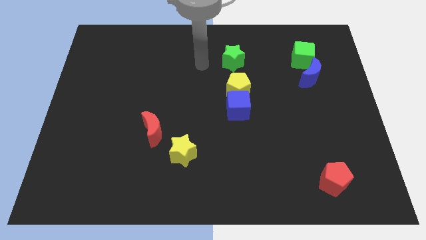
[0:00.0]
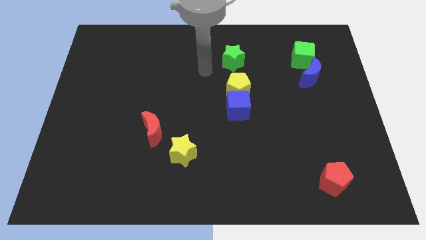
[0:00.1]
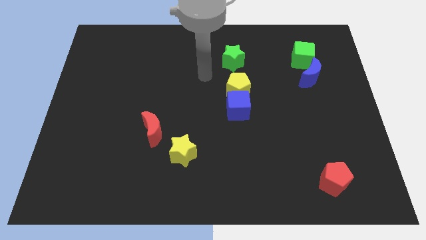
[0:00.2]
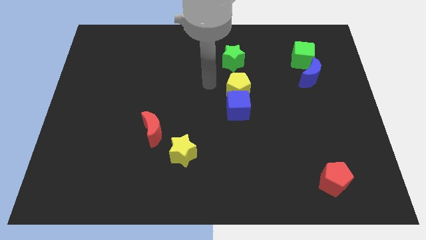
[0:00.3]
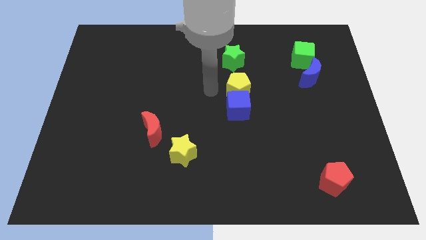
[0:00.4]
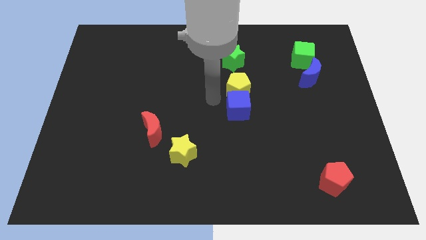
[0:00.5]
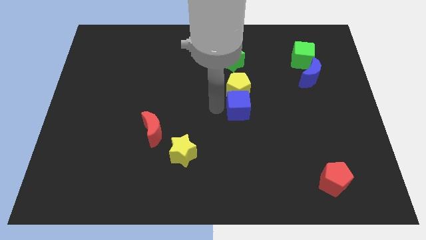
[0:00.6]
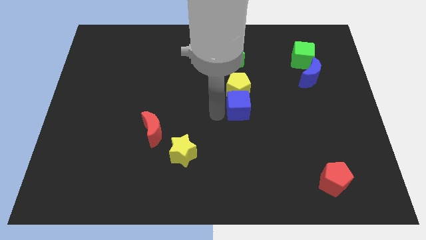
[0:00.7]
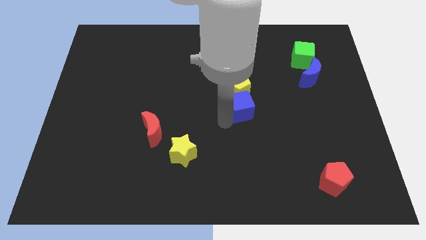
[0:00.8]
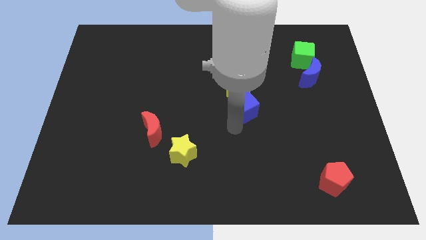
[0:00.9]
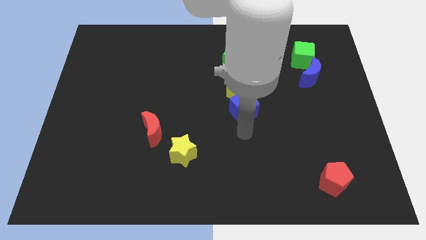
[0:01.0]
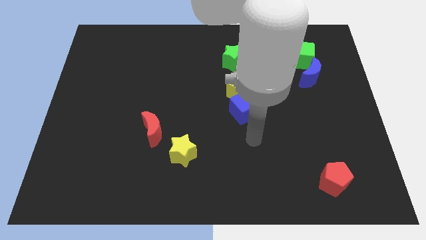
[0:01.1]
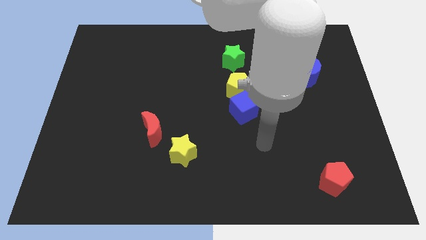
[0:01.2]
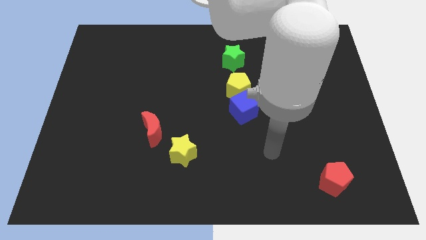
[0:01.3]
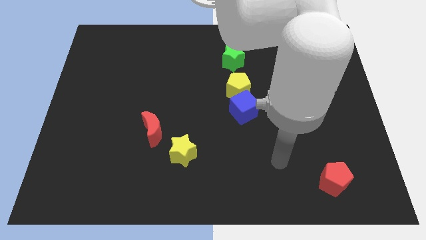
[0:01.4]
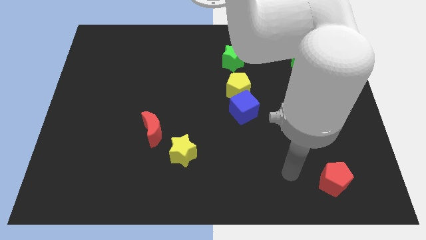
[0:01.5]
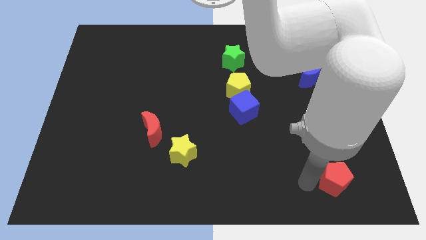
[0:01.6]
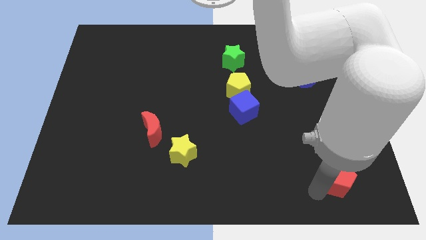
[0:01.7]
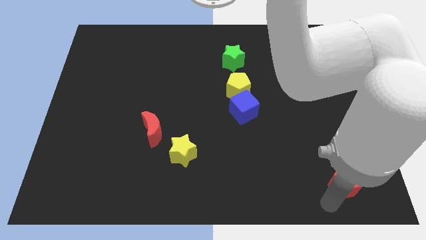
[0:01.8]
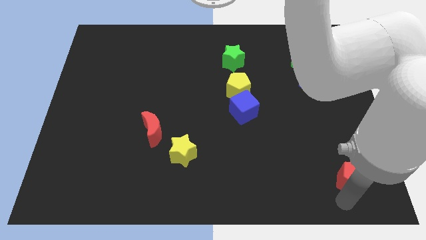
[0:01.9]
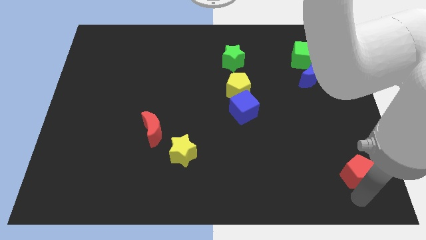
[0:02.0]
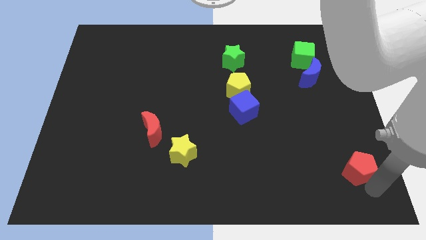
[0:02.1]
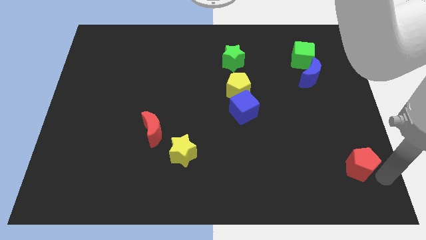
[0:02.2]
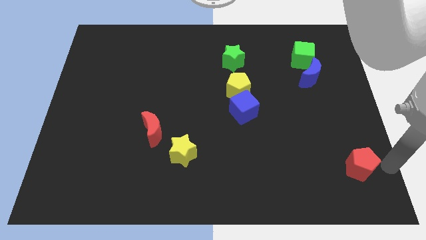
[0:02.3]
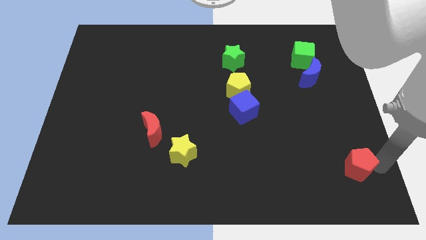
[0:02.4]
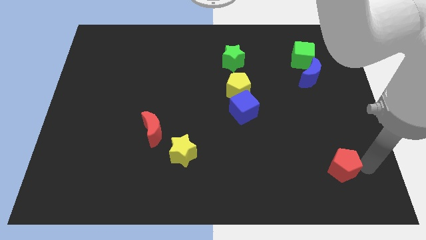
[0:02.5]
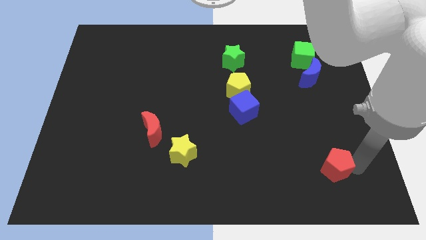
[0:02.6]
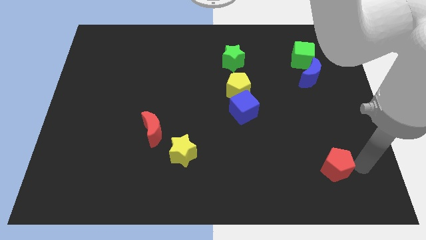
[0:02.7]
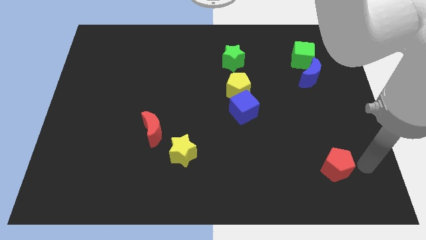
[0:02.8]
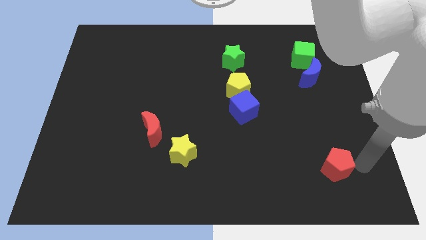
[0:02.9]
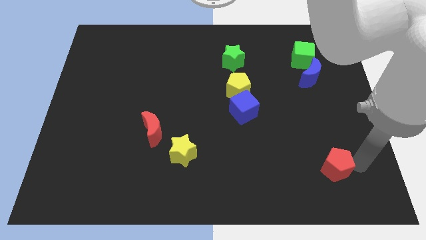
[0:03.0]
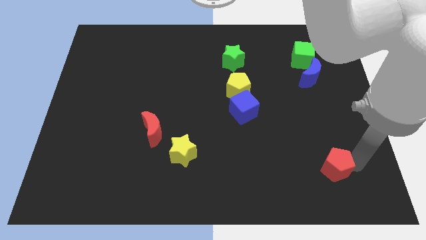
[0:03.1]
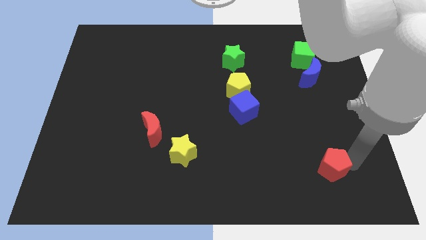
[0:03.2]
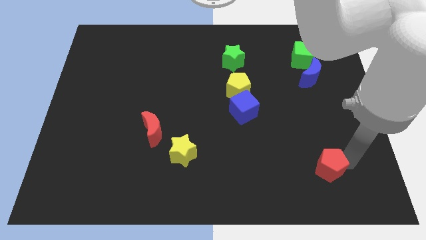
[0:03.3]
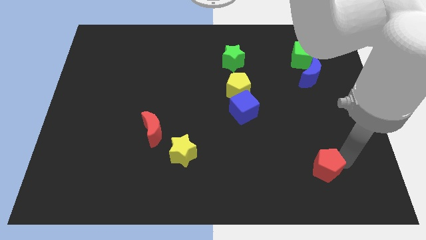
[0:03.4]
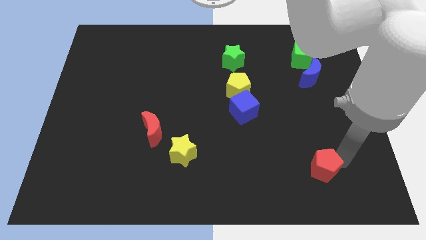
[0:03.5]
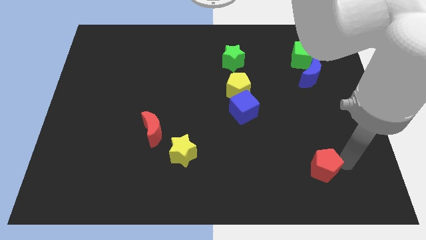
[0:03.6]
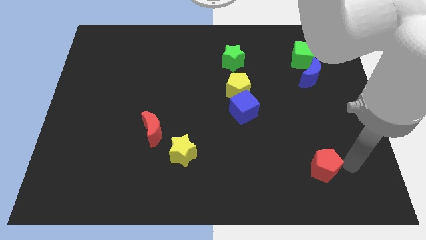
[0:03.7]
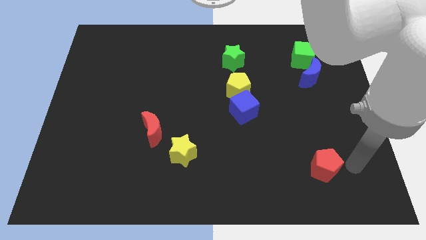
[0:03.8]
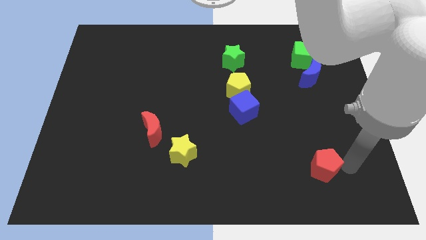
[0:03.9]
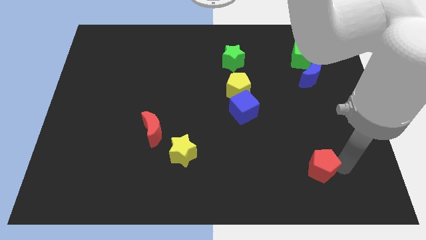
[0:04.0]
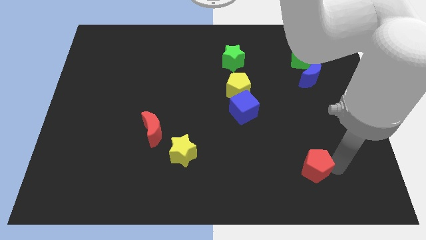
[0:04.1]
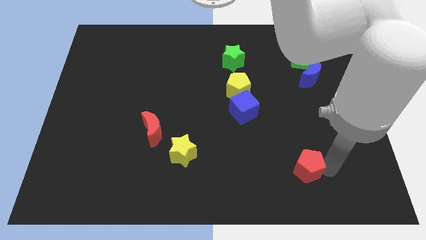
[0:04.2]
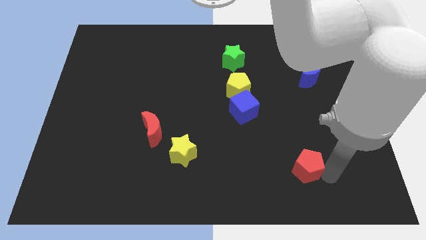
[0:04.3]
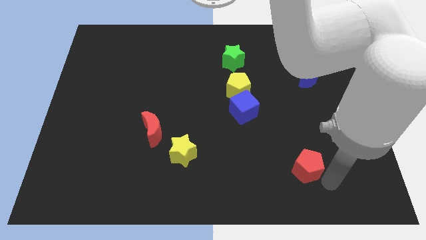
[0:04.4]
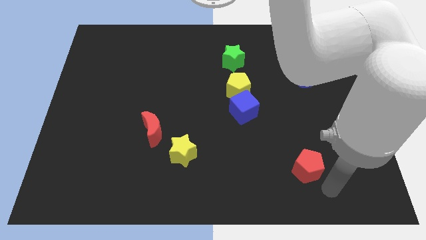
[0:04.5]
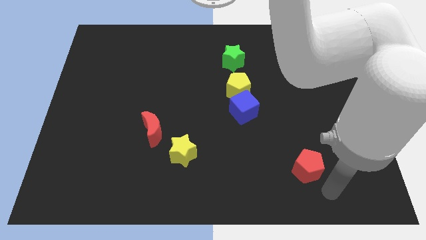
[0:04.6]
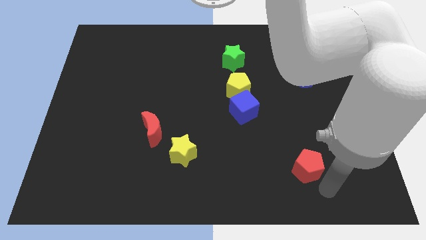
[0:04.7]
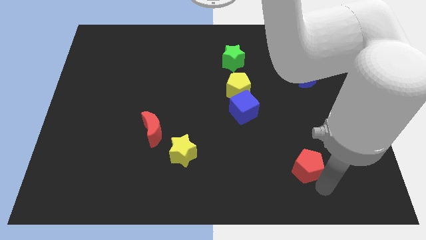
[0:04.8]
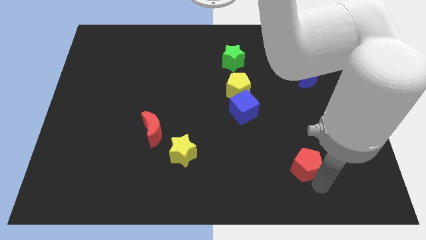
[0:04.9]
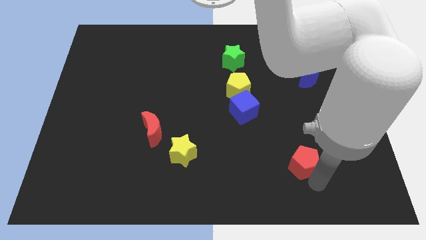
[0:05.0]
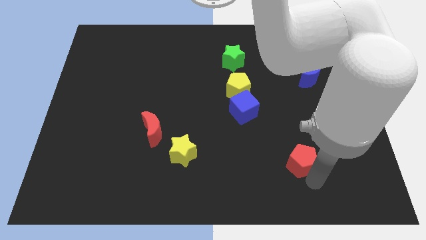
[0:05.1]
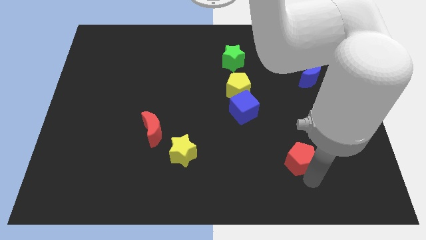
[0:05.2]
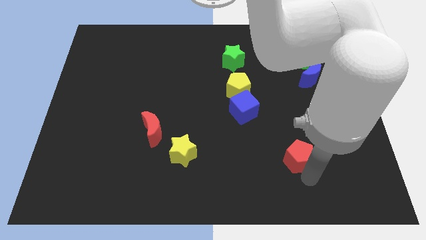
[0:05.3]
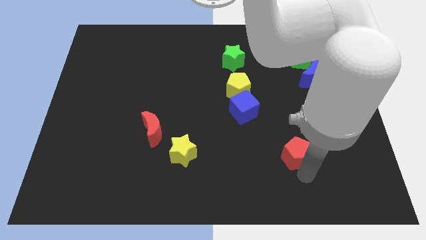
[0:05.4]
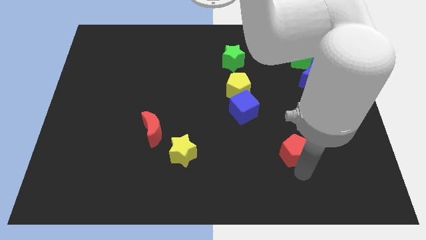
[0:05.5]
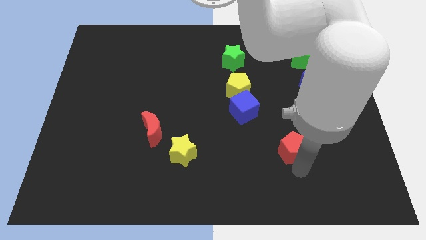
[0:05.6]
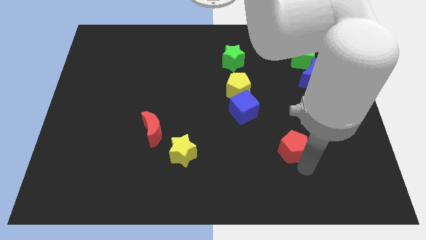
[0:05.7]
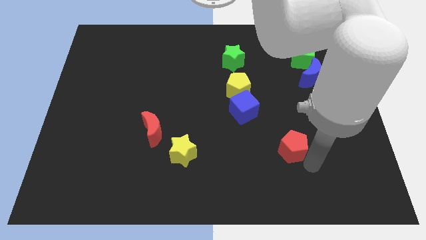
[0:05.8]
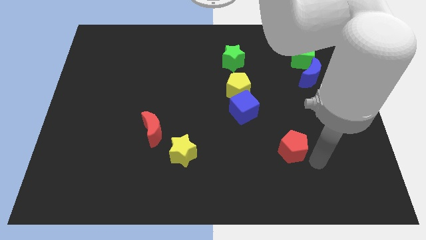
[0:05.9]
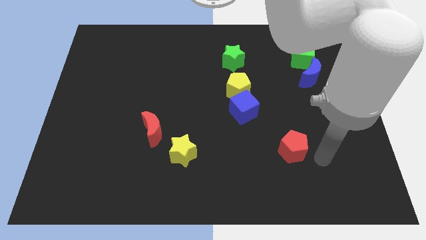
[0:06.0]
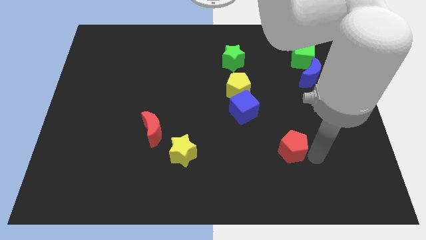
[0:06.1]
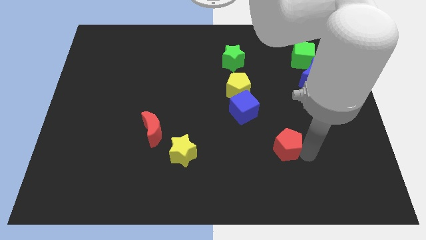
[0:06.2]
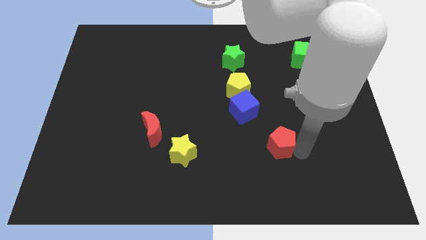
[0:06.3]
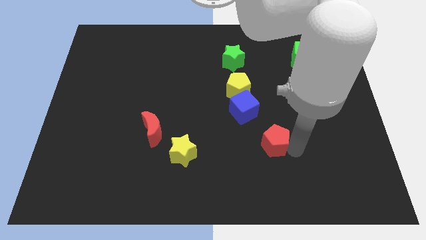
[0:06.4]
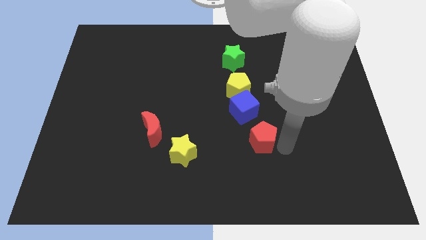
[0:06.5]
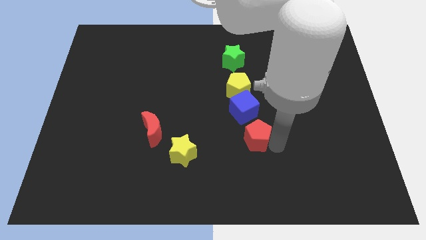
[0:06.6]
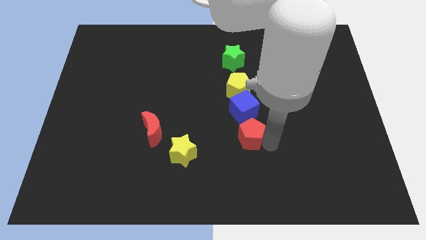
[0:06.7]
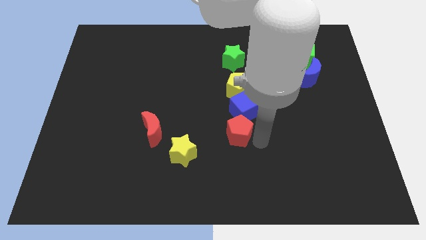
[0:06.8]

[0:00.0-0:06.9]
put the red pentagon to the center of the board

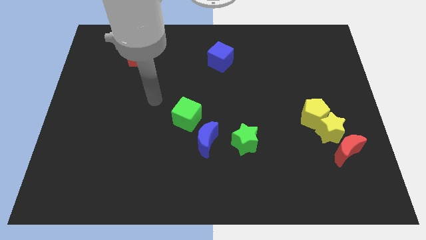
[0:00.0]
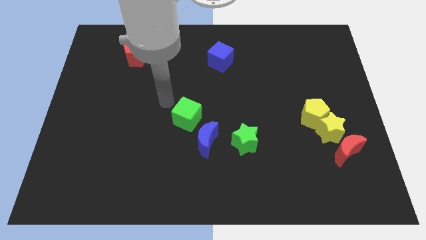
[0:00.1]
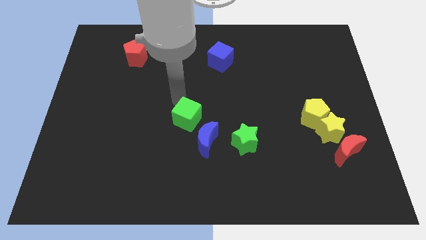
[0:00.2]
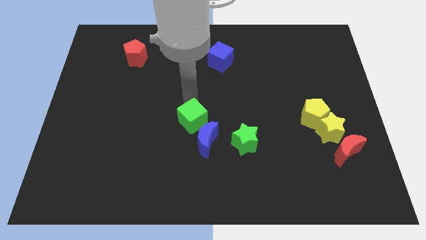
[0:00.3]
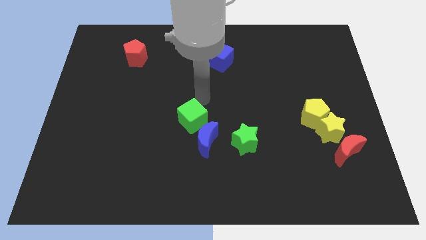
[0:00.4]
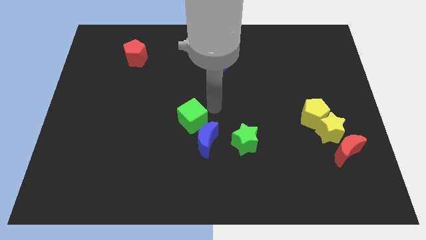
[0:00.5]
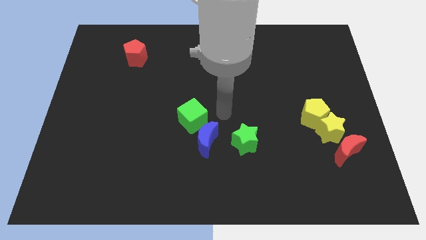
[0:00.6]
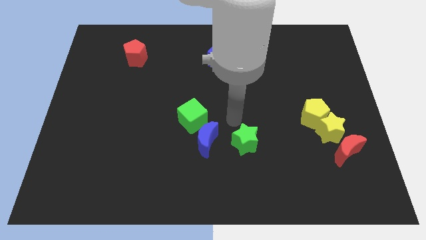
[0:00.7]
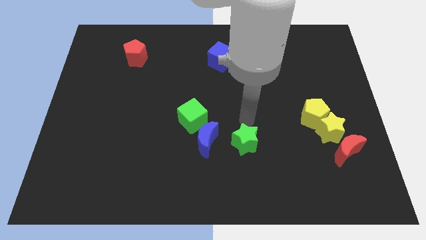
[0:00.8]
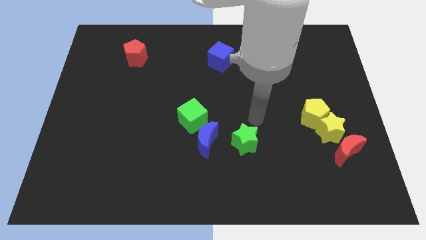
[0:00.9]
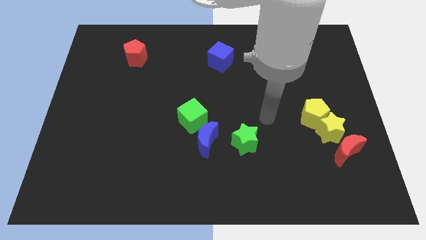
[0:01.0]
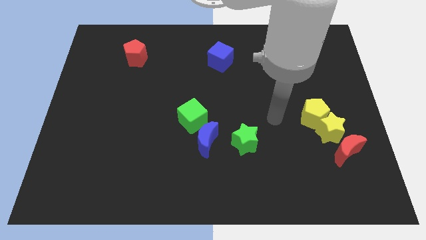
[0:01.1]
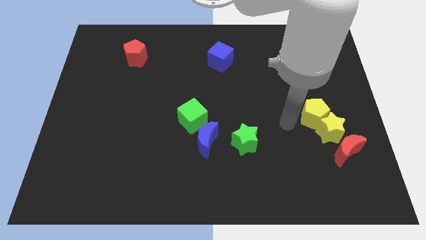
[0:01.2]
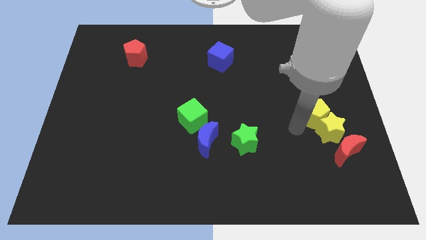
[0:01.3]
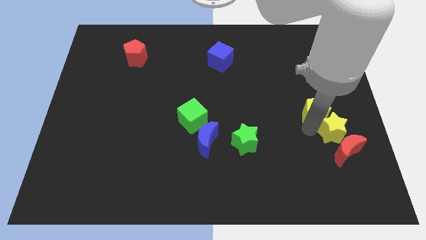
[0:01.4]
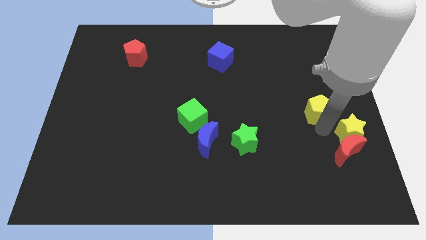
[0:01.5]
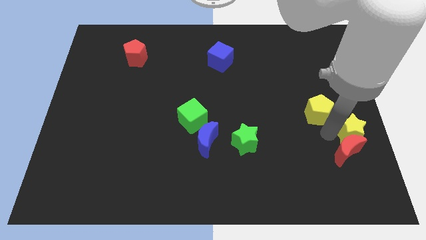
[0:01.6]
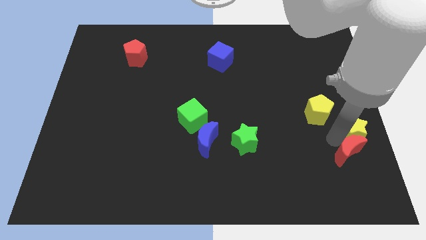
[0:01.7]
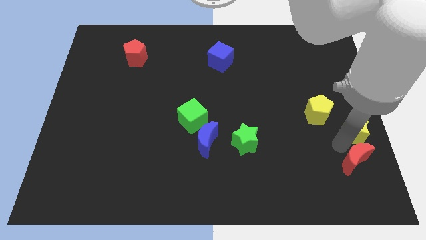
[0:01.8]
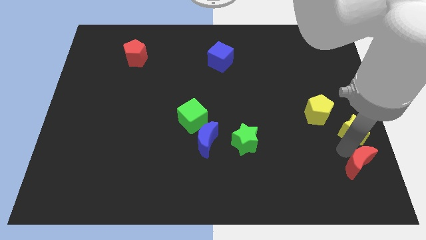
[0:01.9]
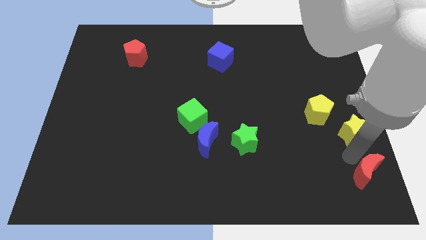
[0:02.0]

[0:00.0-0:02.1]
slide the red moon to the bottom right corner
